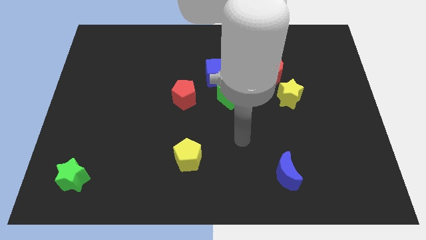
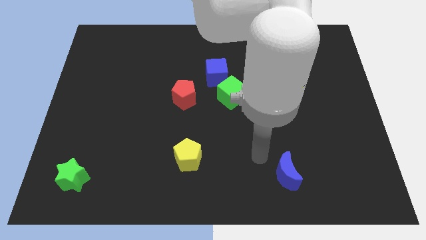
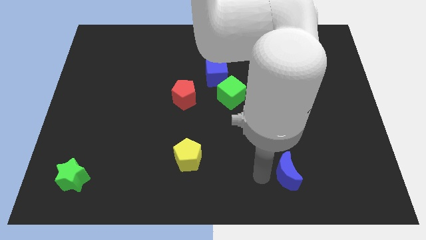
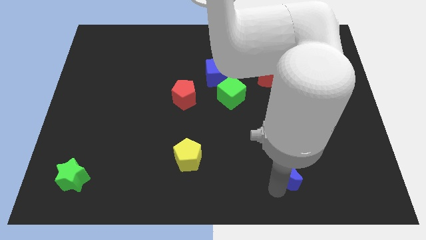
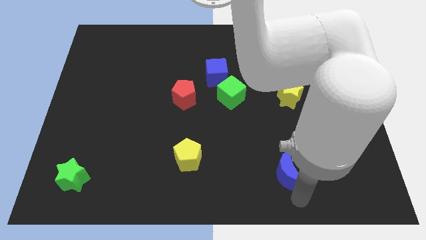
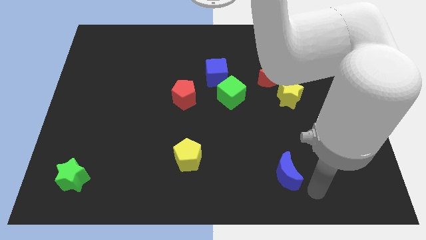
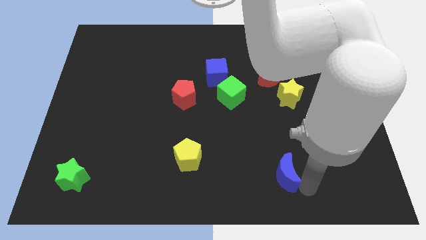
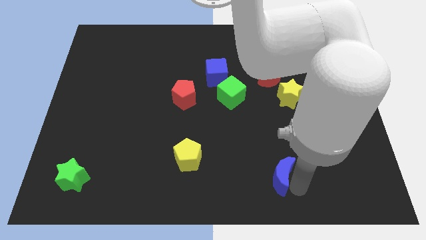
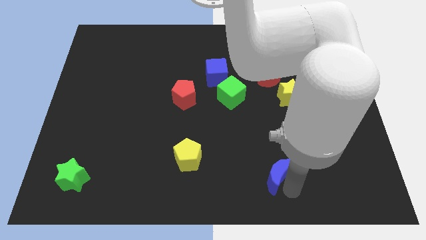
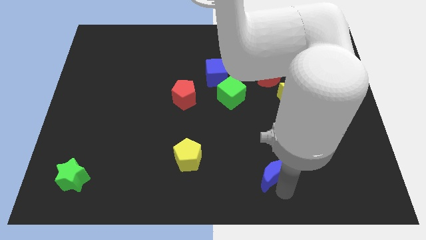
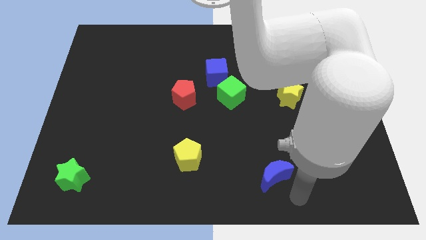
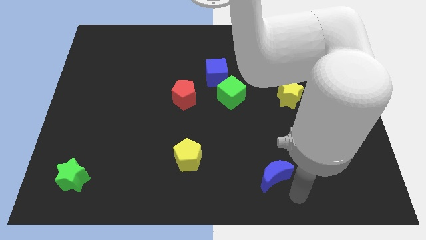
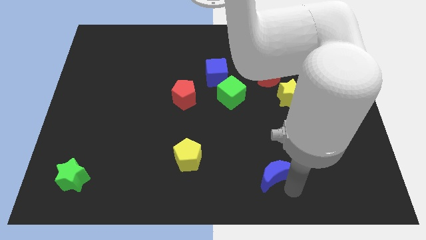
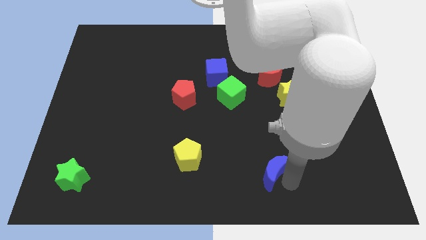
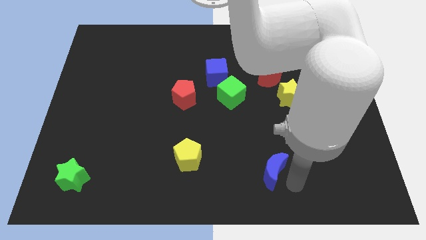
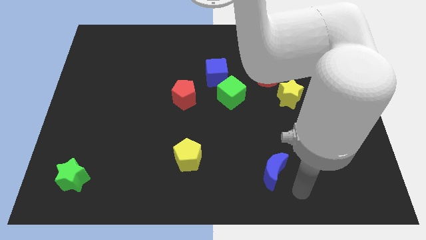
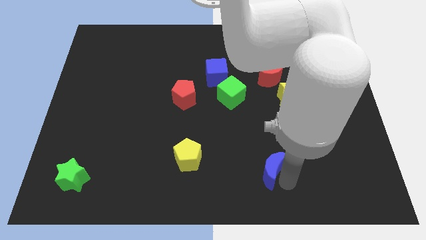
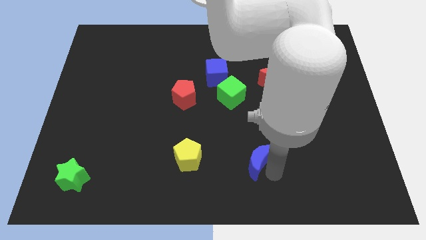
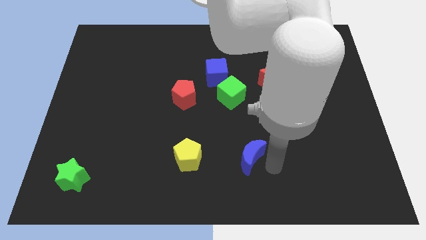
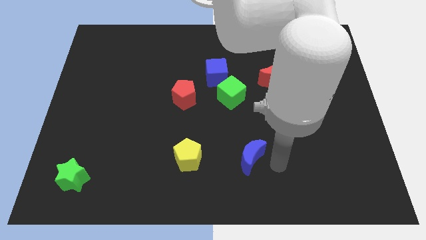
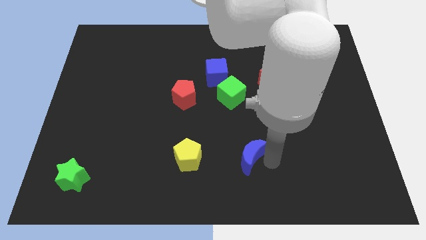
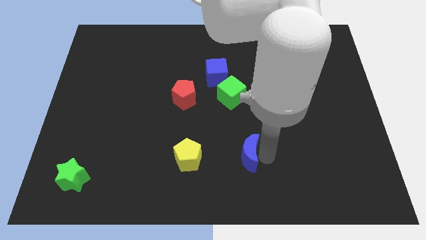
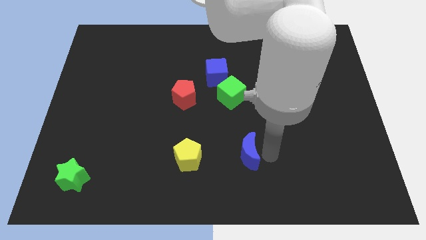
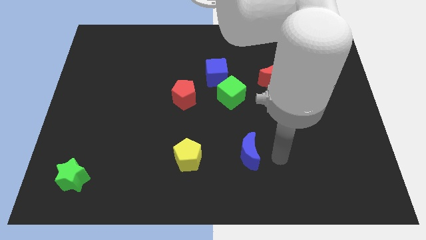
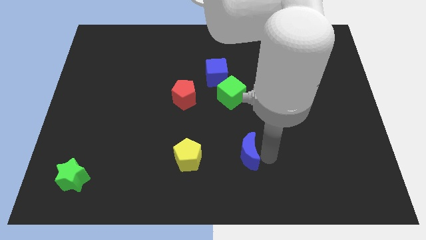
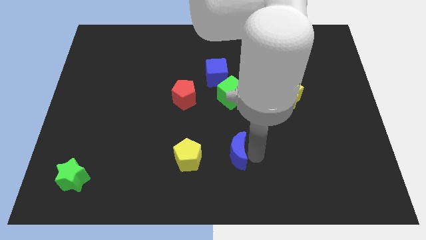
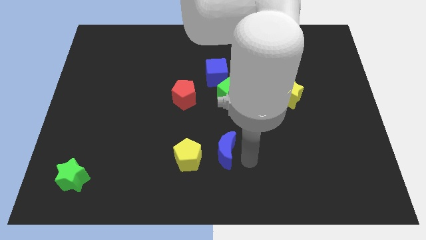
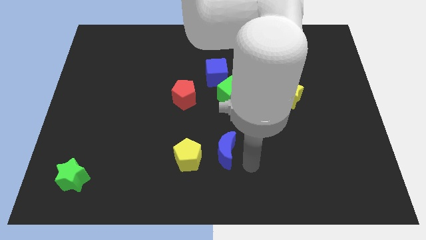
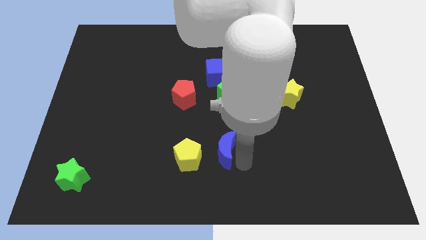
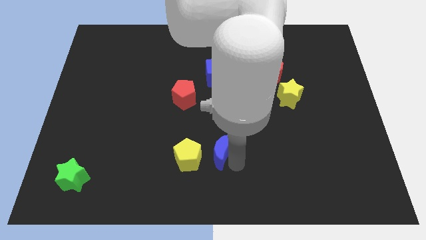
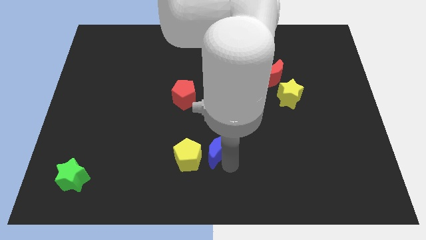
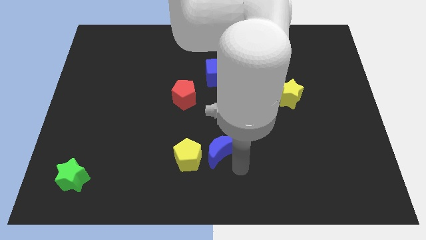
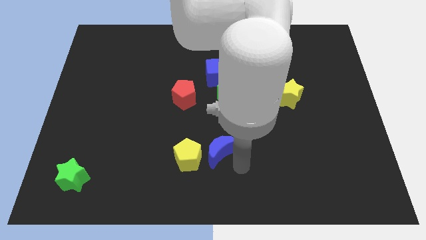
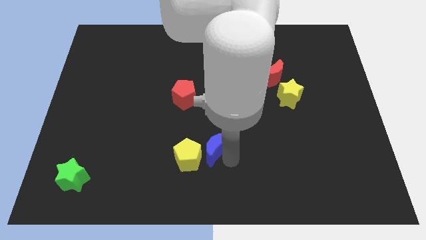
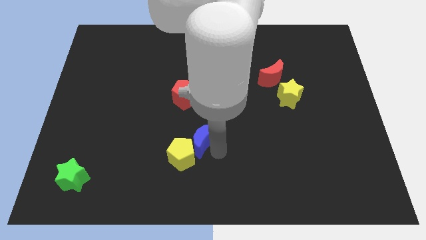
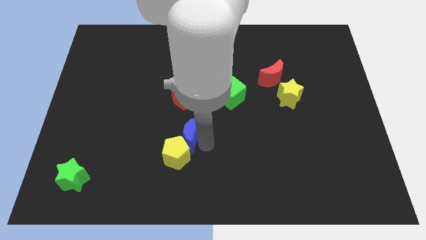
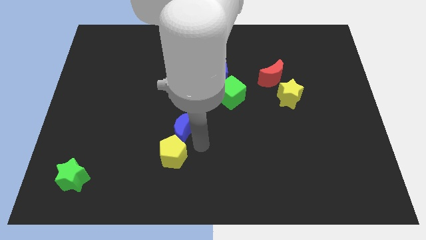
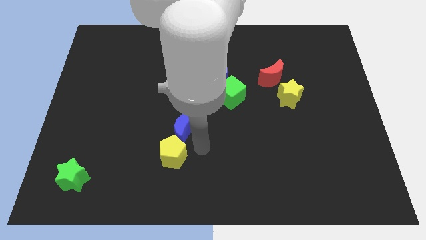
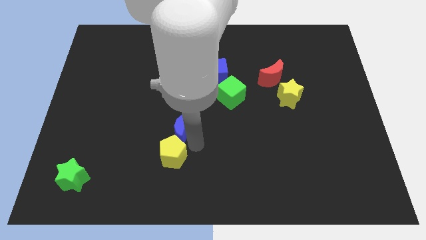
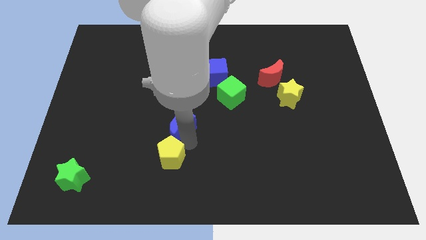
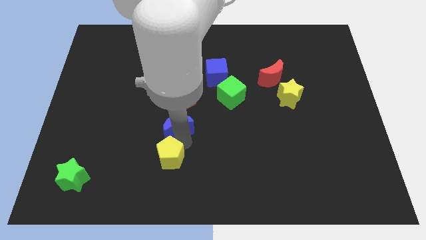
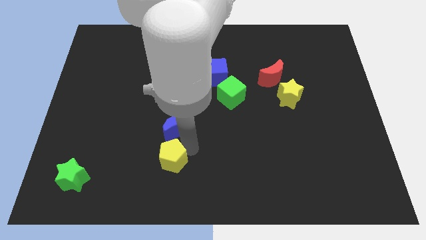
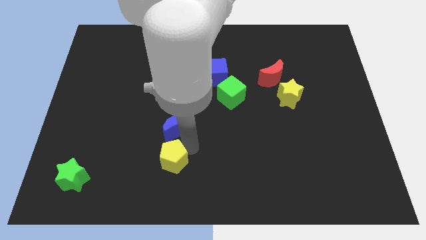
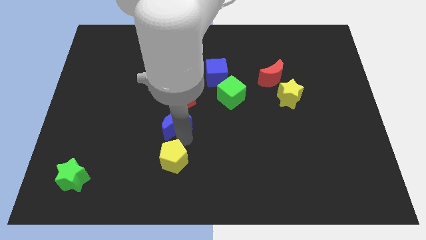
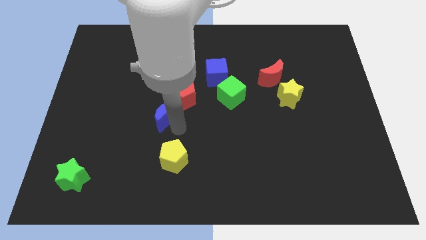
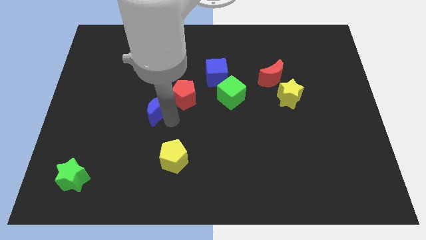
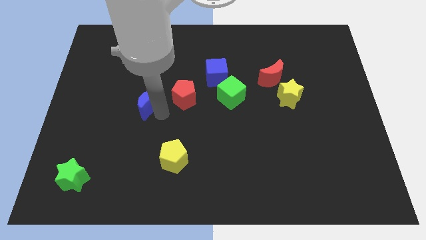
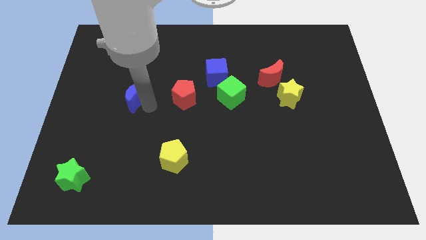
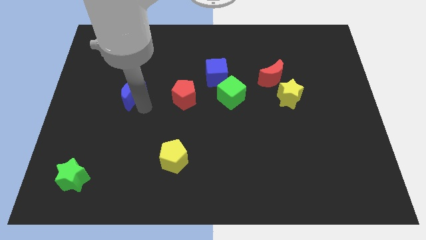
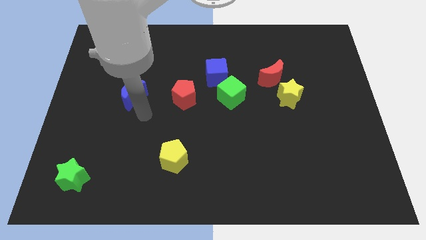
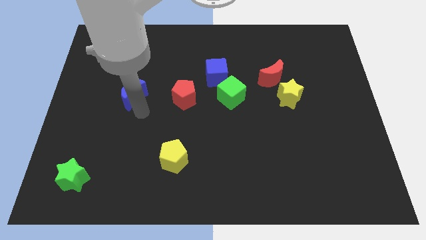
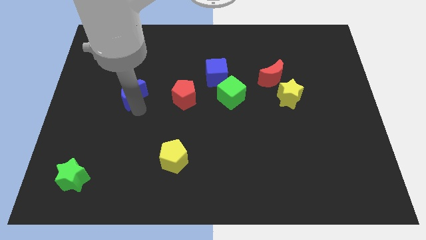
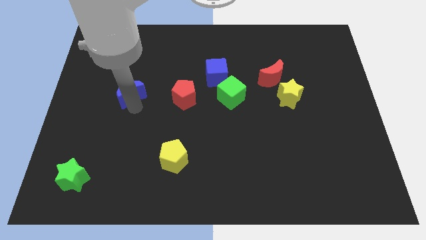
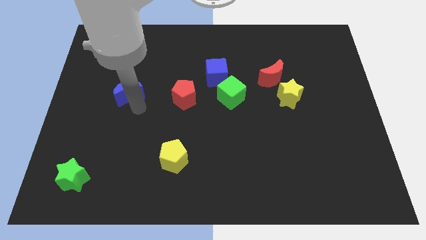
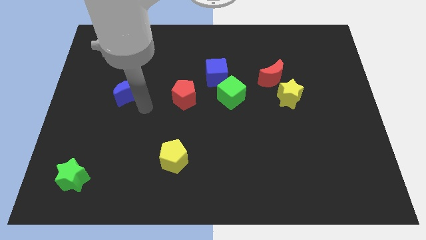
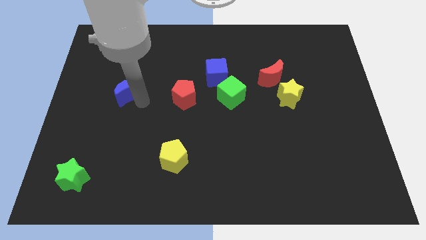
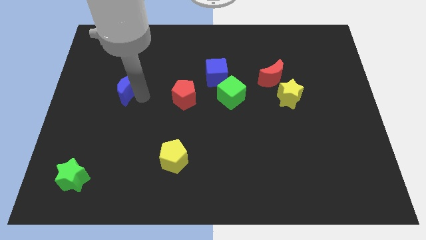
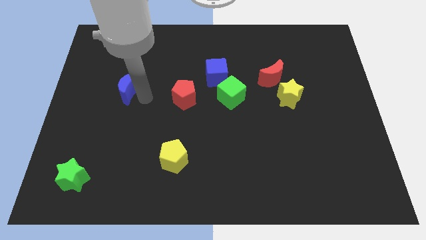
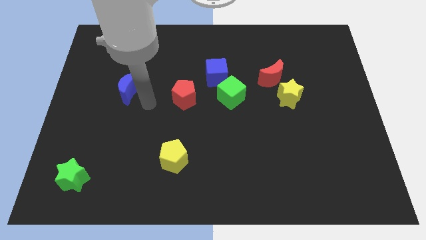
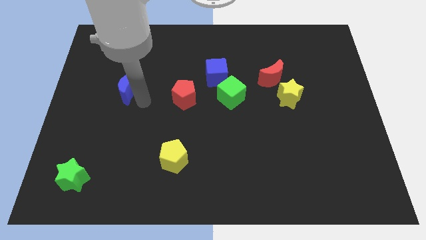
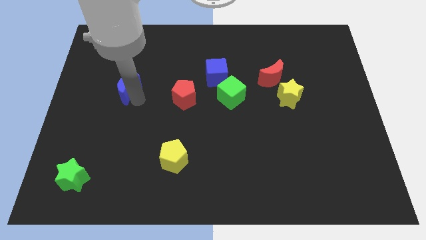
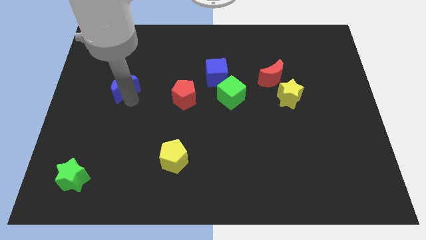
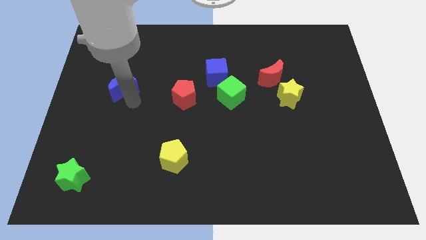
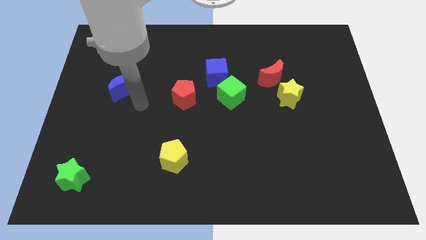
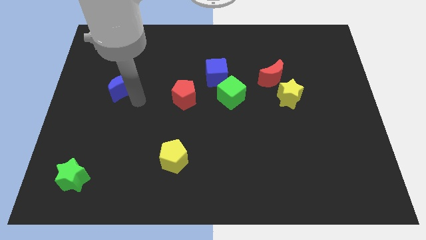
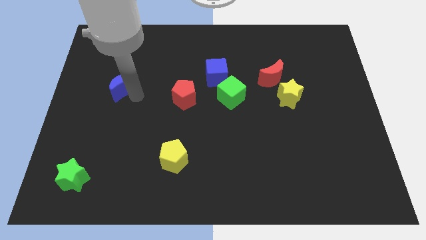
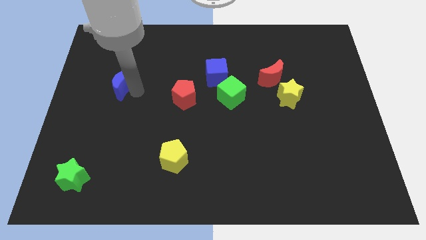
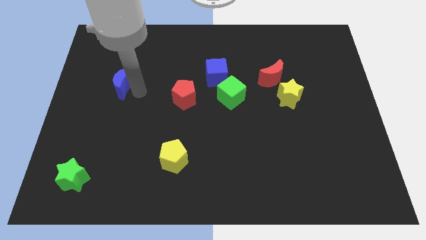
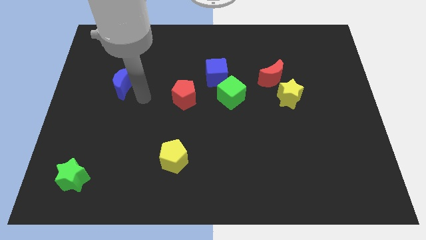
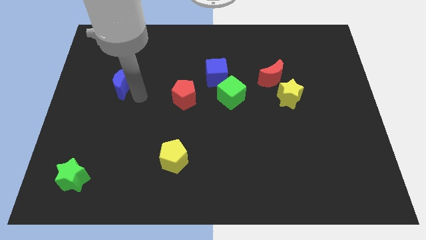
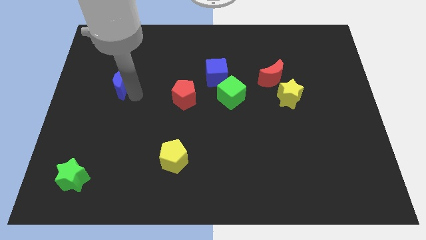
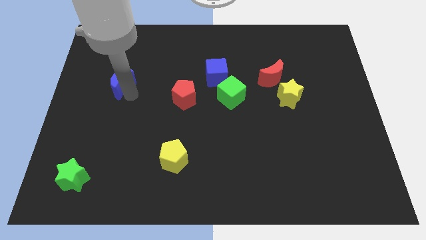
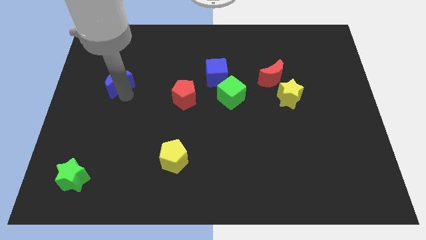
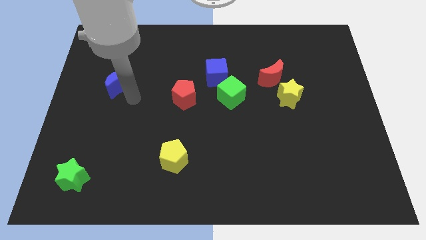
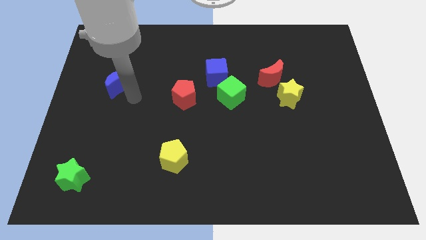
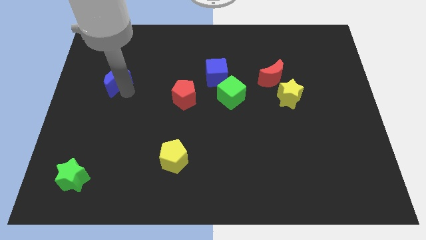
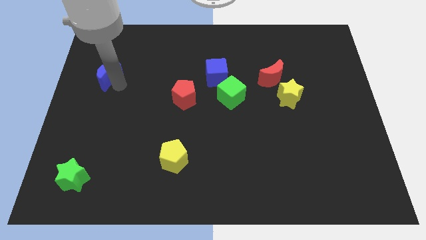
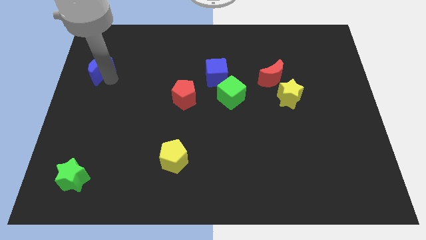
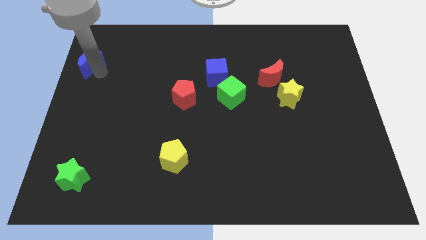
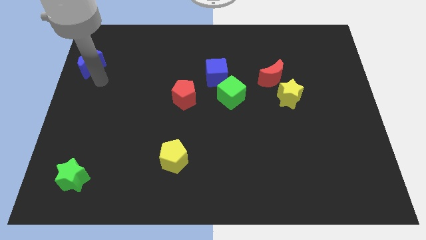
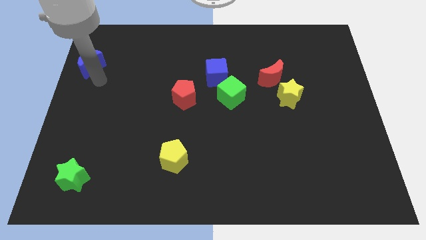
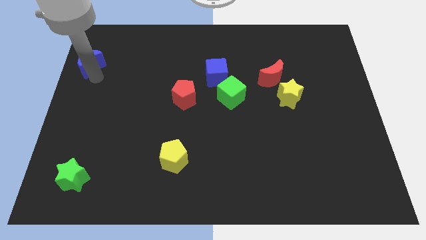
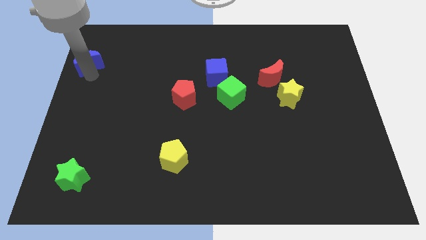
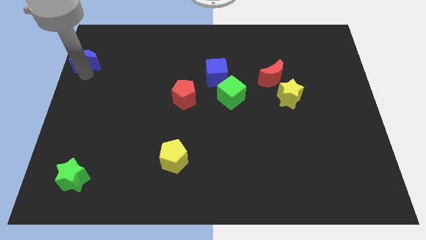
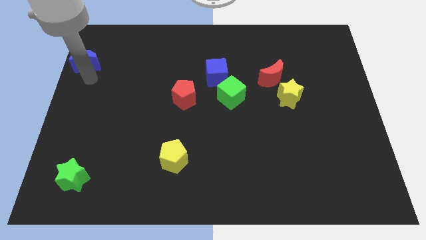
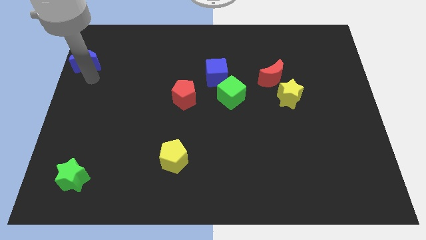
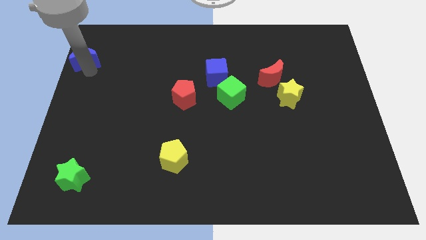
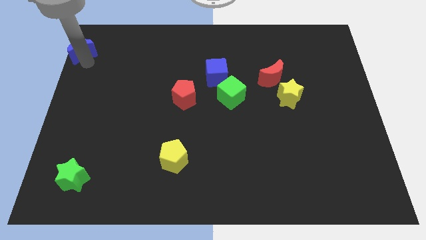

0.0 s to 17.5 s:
slide the blue moon to the top left
